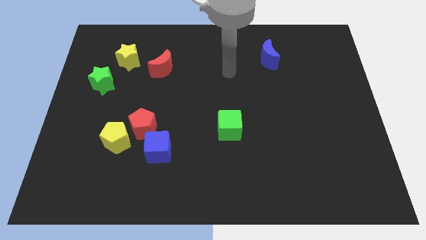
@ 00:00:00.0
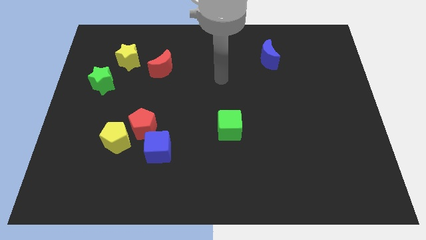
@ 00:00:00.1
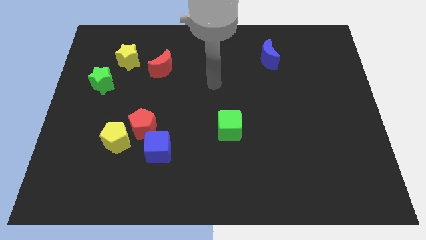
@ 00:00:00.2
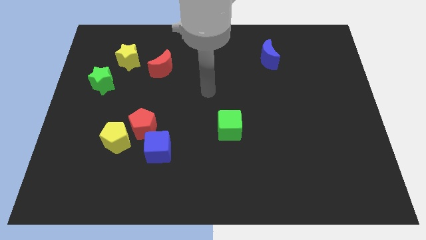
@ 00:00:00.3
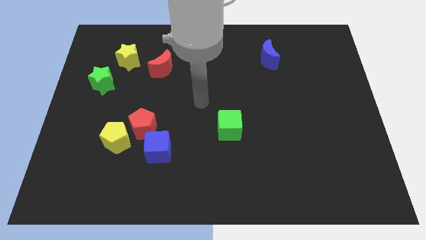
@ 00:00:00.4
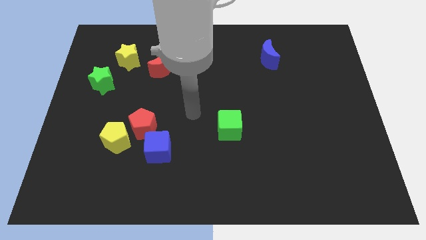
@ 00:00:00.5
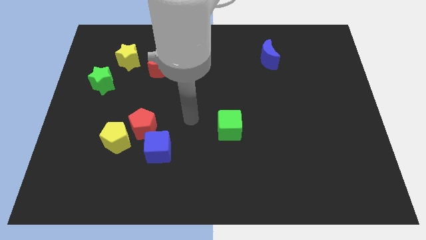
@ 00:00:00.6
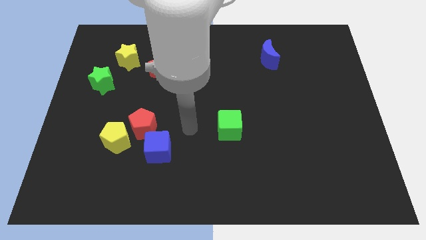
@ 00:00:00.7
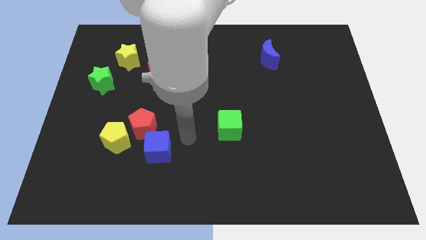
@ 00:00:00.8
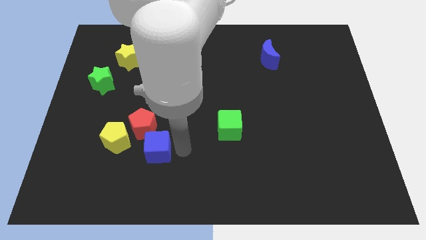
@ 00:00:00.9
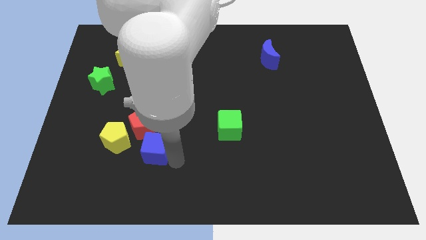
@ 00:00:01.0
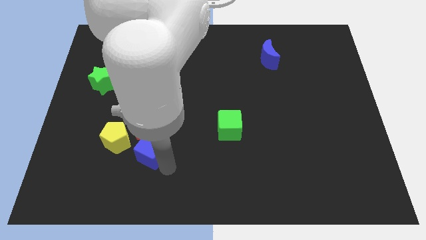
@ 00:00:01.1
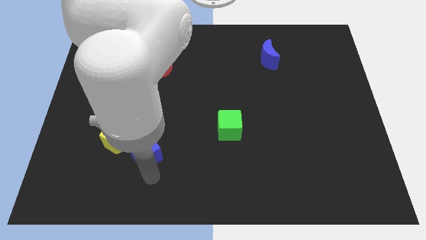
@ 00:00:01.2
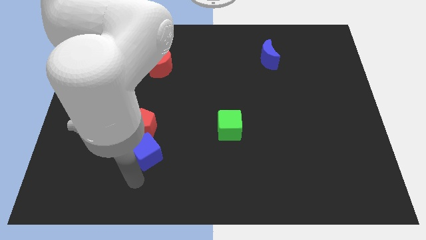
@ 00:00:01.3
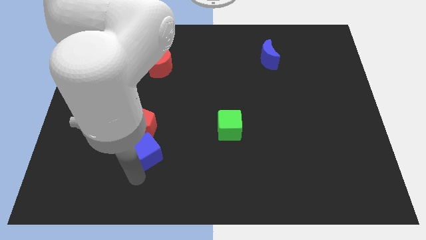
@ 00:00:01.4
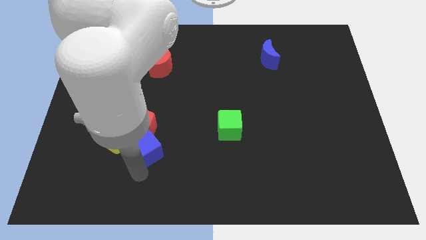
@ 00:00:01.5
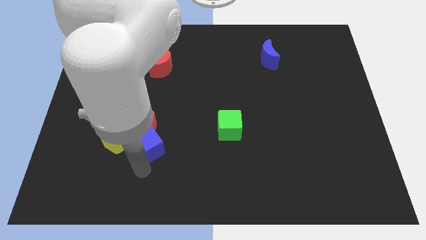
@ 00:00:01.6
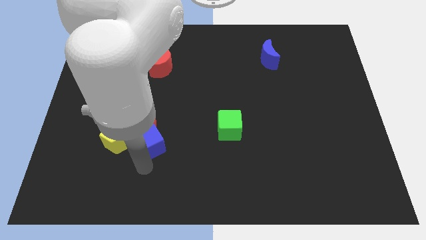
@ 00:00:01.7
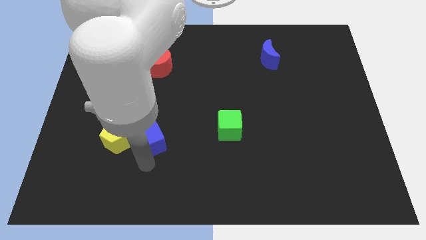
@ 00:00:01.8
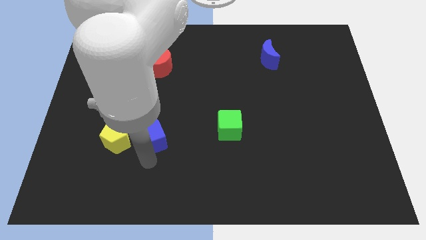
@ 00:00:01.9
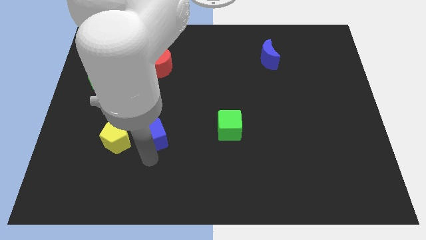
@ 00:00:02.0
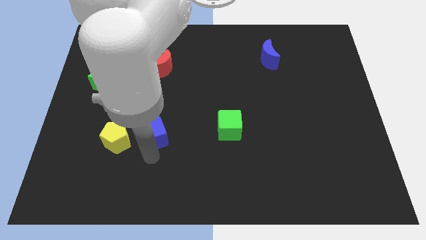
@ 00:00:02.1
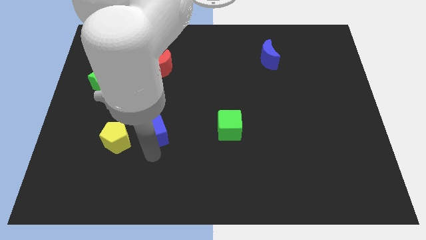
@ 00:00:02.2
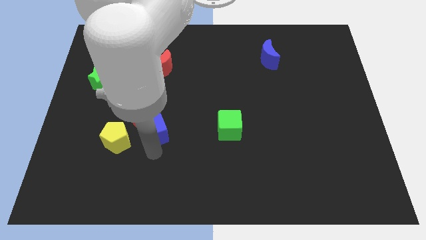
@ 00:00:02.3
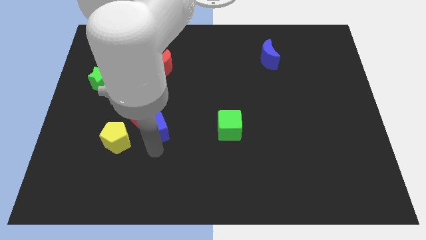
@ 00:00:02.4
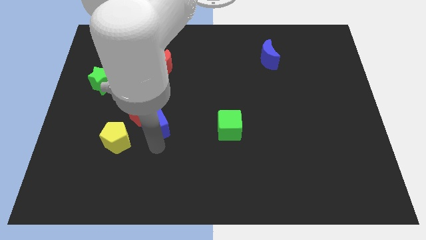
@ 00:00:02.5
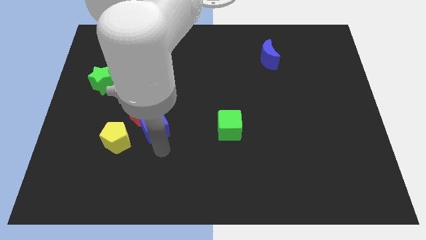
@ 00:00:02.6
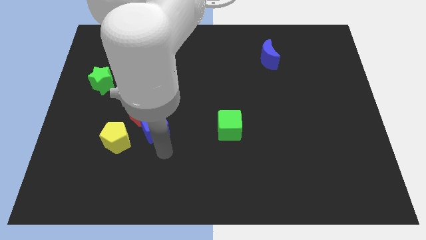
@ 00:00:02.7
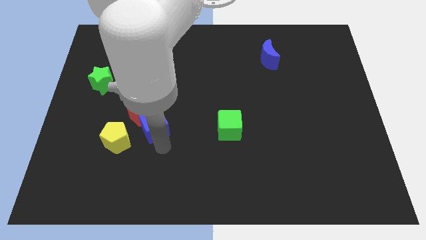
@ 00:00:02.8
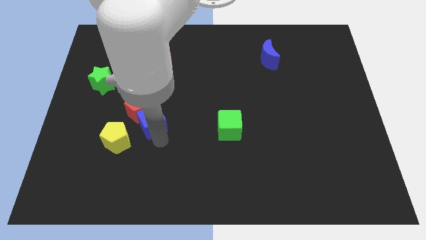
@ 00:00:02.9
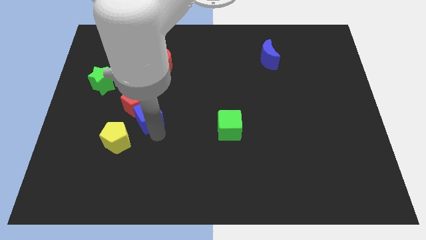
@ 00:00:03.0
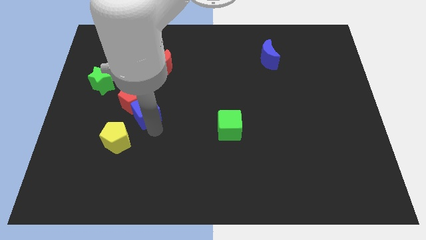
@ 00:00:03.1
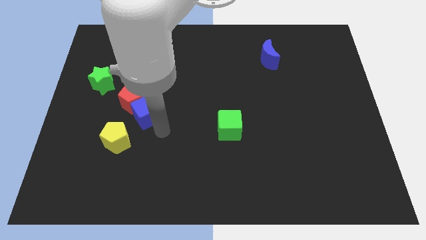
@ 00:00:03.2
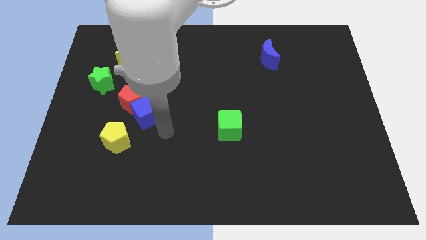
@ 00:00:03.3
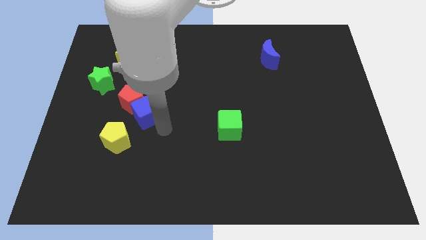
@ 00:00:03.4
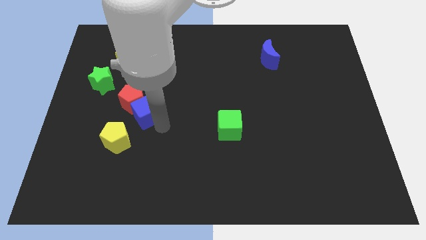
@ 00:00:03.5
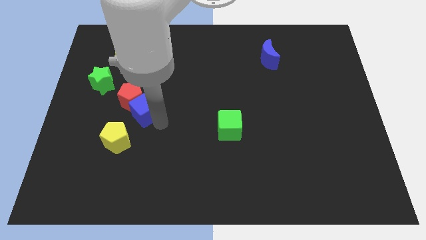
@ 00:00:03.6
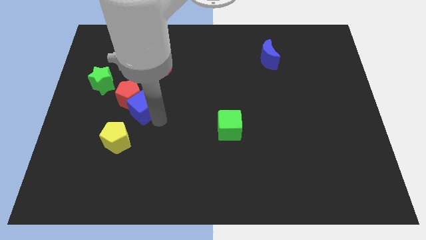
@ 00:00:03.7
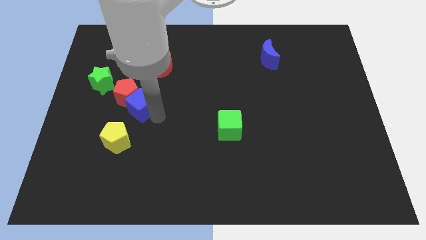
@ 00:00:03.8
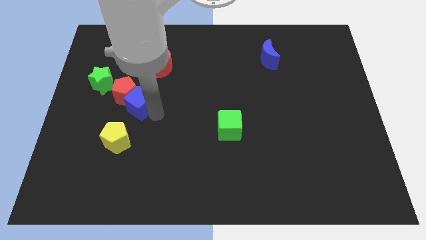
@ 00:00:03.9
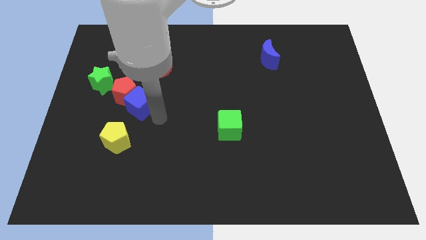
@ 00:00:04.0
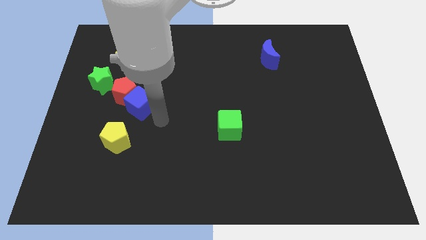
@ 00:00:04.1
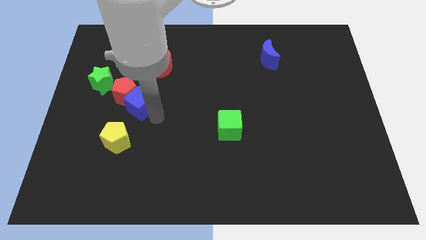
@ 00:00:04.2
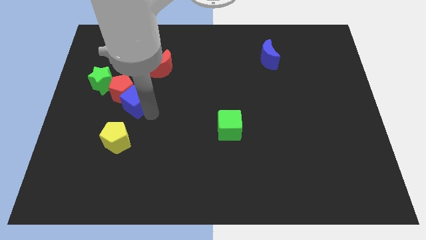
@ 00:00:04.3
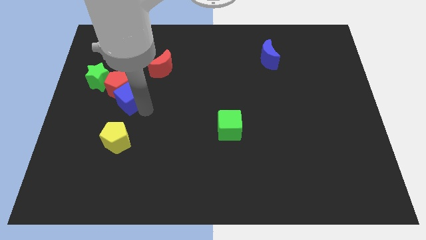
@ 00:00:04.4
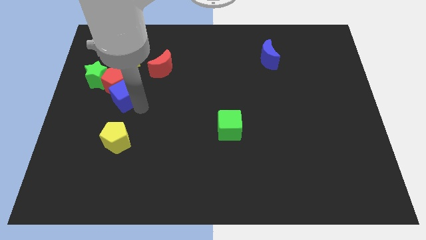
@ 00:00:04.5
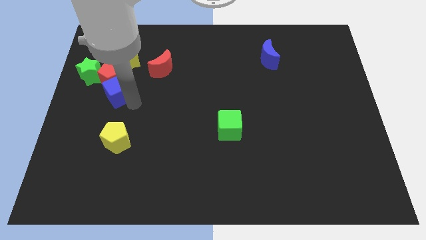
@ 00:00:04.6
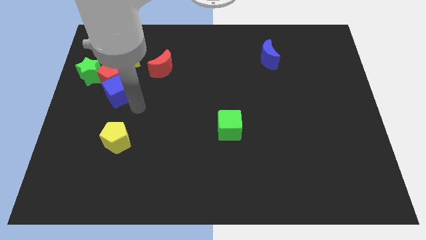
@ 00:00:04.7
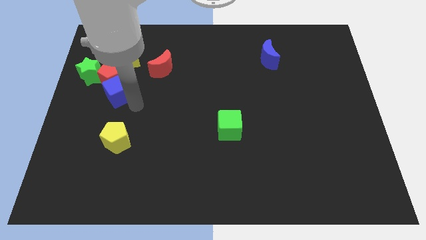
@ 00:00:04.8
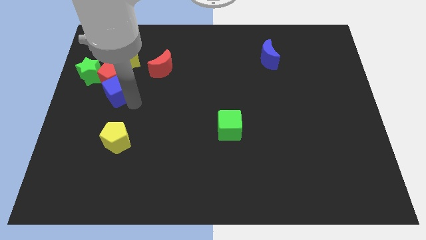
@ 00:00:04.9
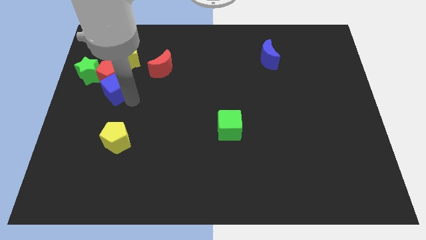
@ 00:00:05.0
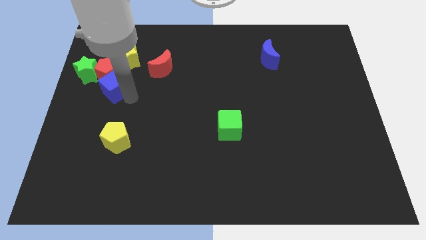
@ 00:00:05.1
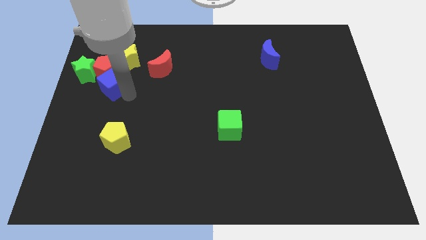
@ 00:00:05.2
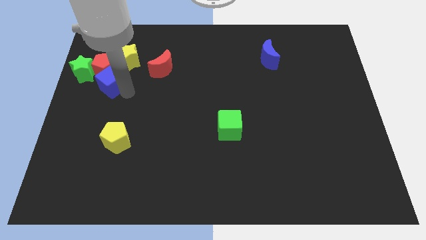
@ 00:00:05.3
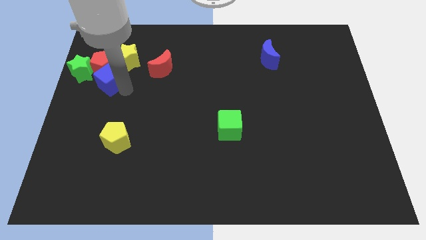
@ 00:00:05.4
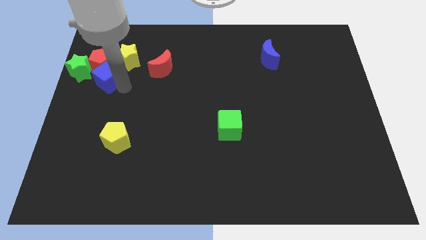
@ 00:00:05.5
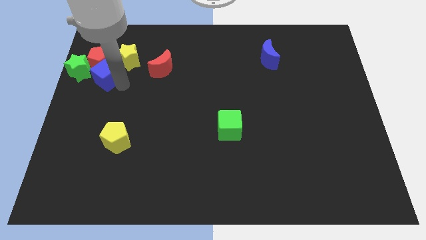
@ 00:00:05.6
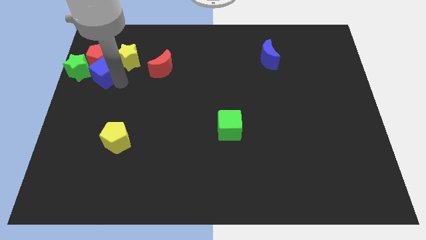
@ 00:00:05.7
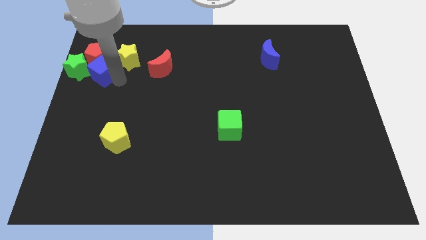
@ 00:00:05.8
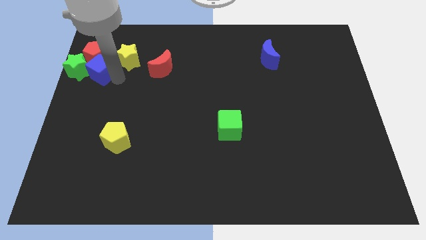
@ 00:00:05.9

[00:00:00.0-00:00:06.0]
push the blue cube to the green star

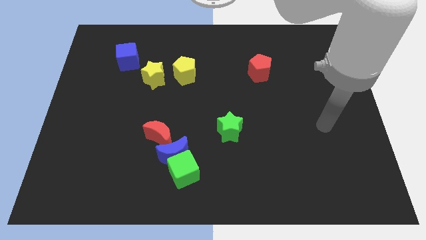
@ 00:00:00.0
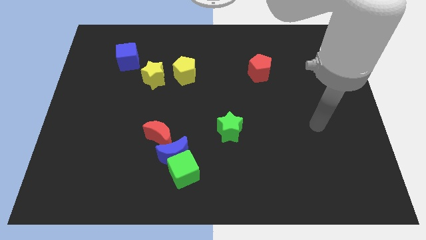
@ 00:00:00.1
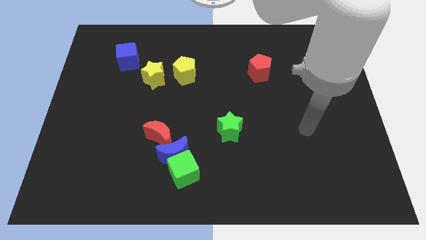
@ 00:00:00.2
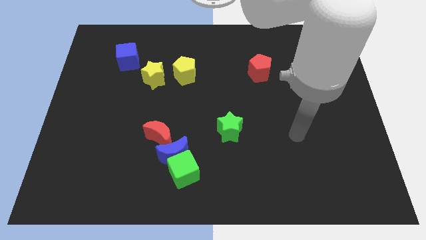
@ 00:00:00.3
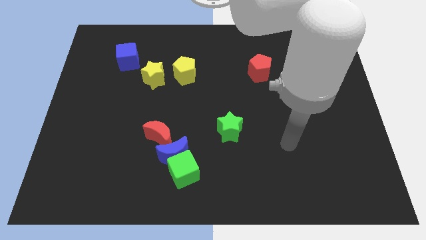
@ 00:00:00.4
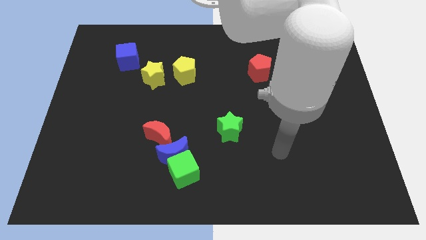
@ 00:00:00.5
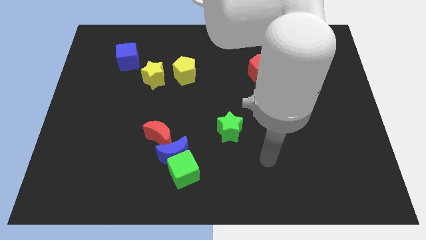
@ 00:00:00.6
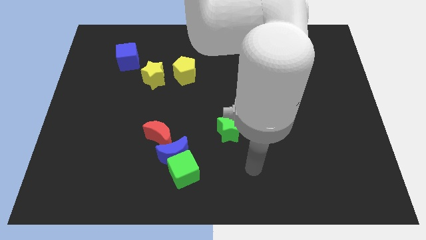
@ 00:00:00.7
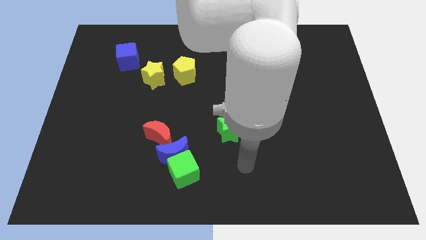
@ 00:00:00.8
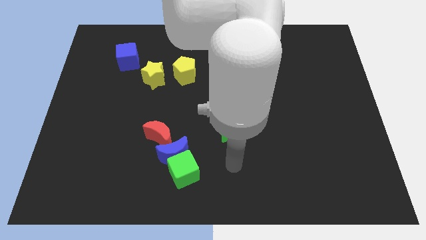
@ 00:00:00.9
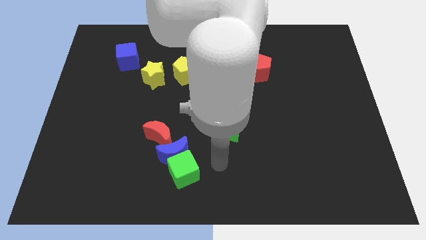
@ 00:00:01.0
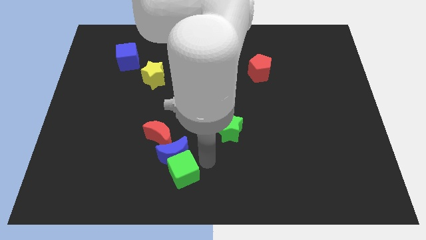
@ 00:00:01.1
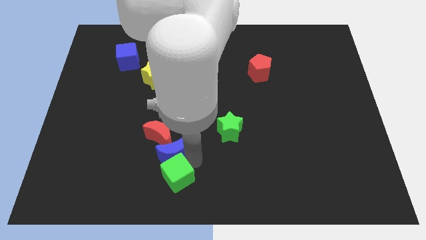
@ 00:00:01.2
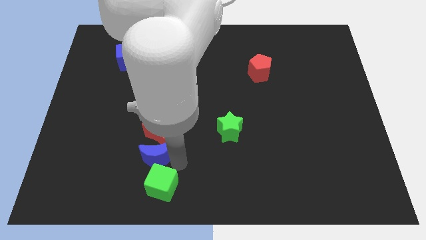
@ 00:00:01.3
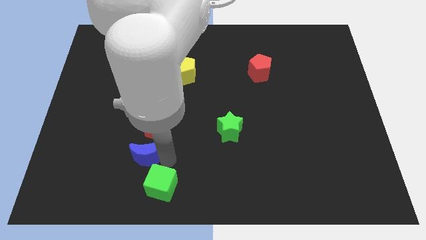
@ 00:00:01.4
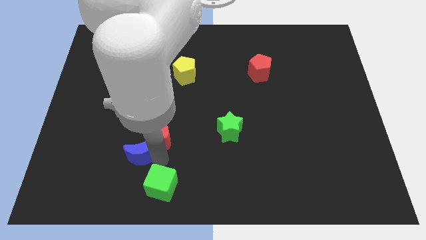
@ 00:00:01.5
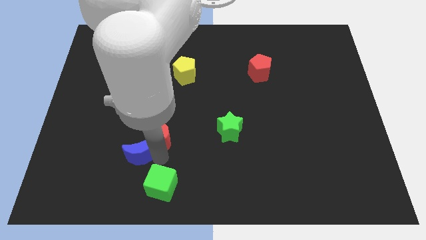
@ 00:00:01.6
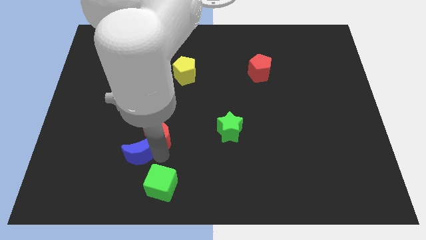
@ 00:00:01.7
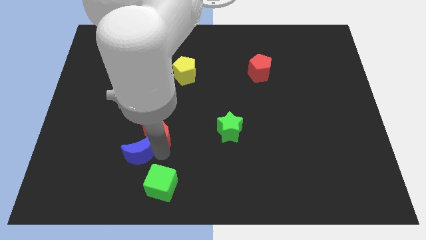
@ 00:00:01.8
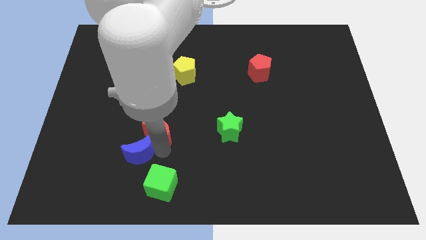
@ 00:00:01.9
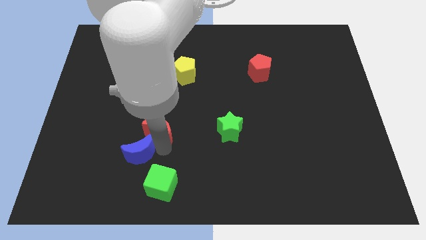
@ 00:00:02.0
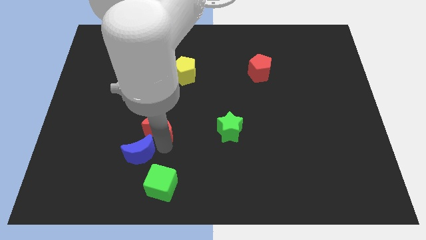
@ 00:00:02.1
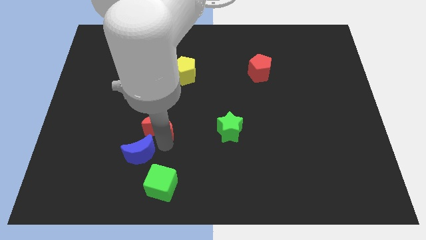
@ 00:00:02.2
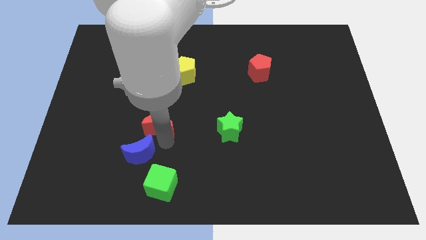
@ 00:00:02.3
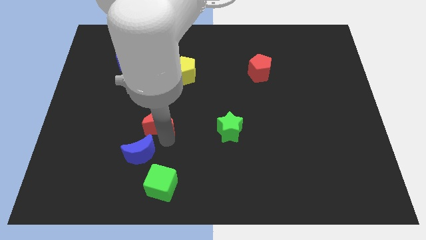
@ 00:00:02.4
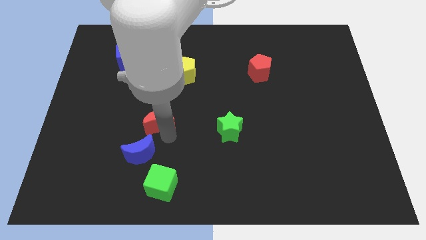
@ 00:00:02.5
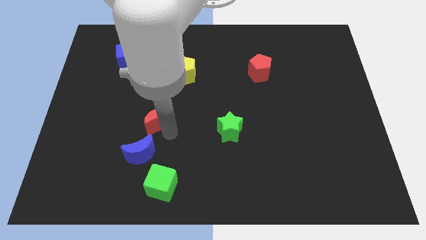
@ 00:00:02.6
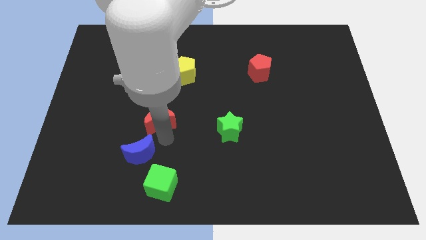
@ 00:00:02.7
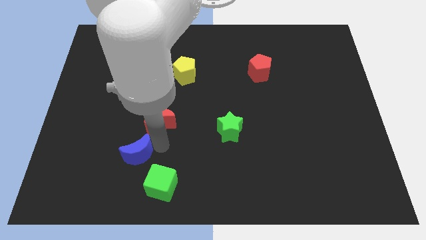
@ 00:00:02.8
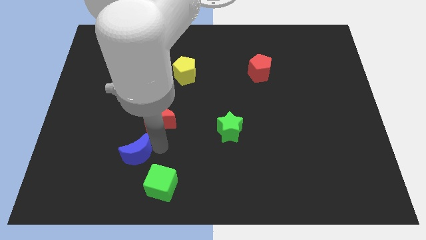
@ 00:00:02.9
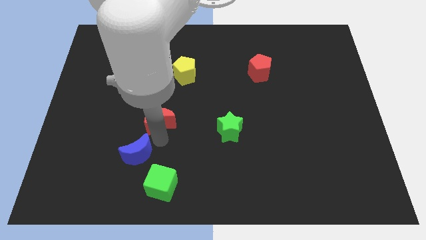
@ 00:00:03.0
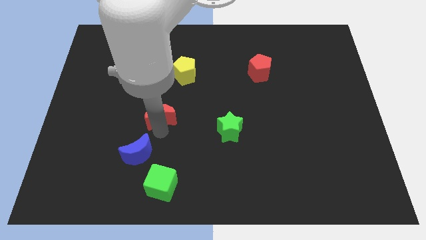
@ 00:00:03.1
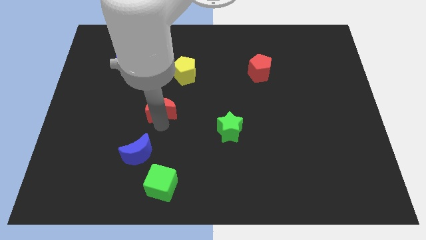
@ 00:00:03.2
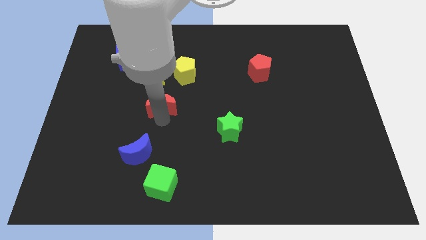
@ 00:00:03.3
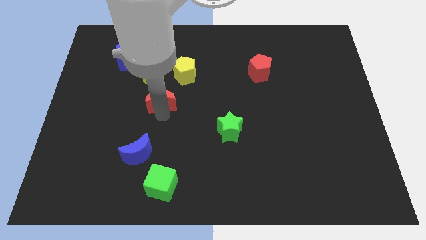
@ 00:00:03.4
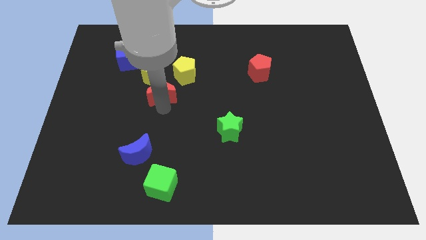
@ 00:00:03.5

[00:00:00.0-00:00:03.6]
slide the red moon towards the yellow star
